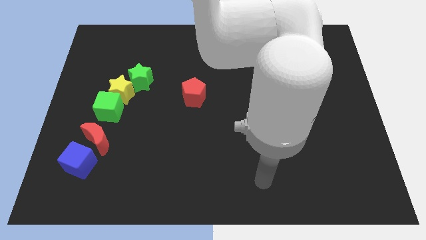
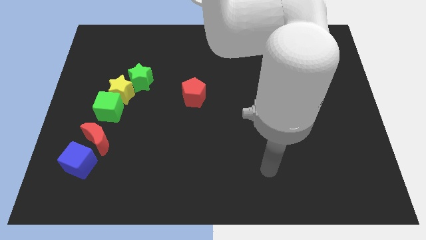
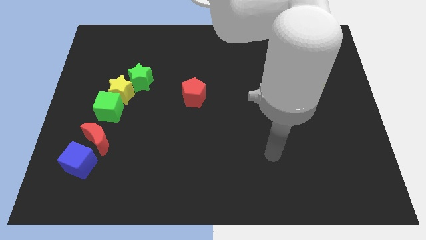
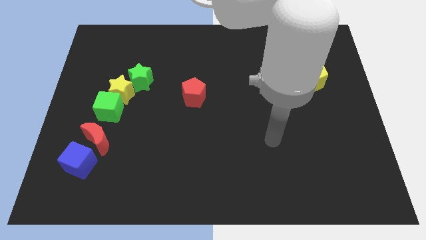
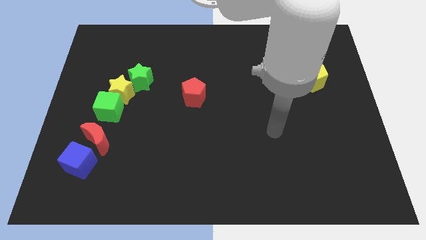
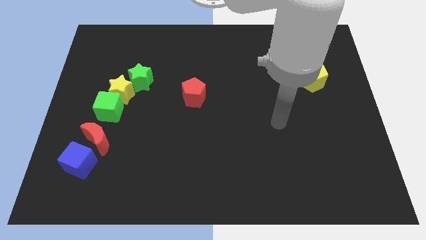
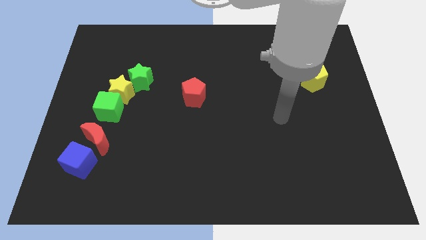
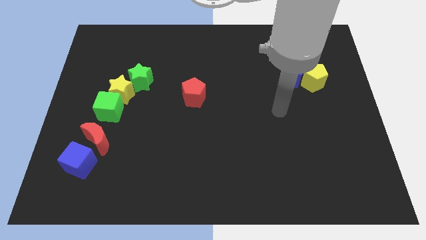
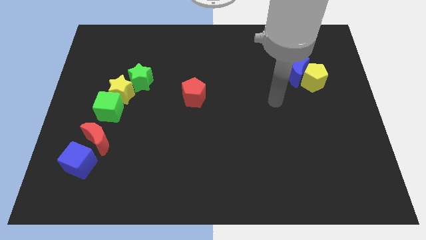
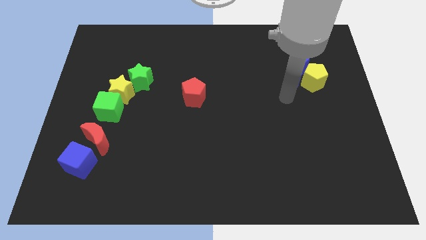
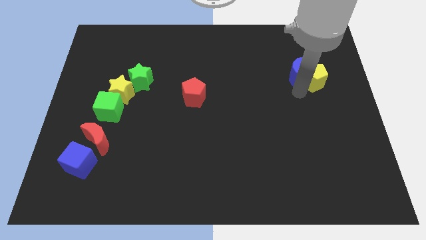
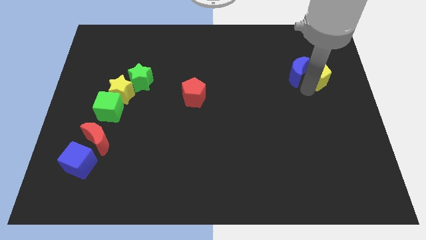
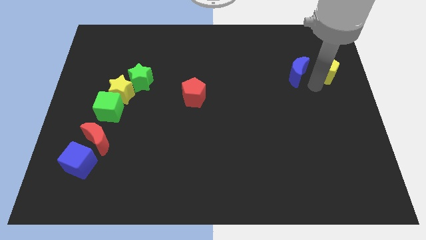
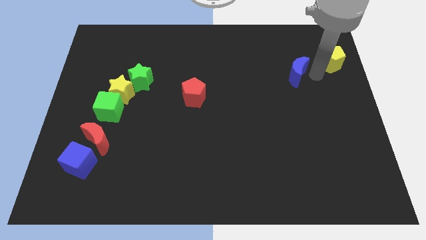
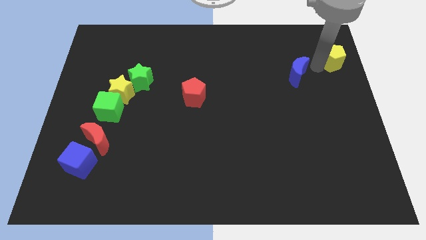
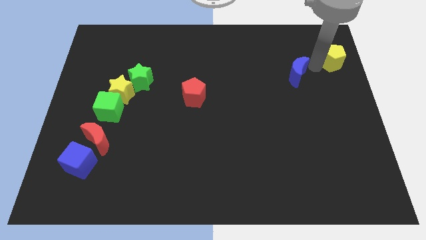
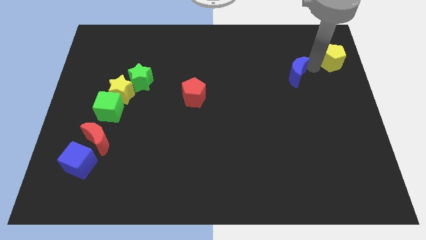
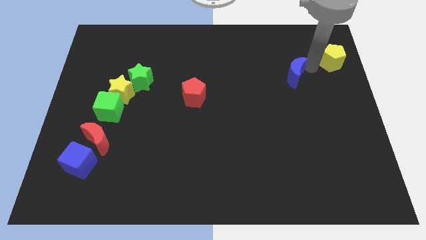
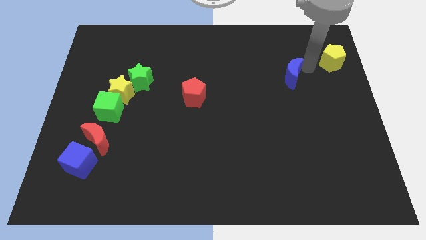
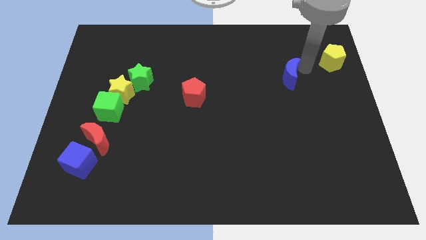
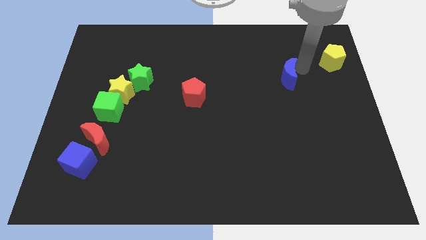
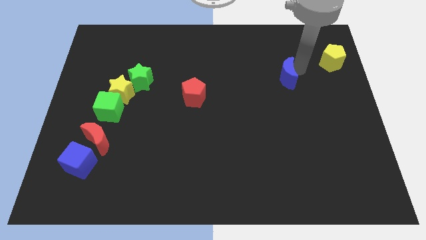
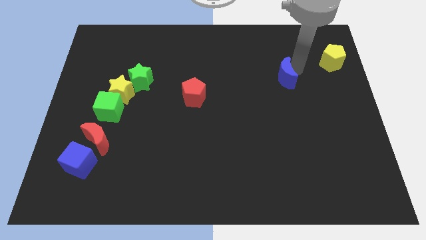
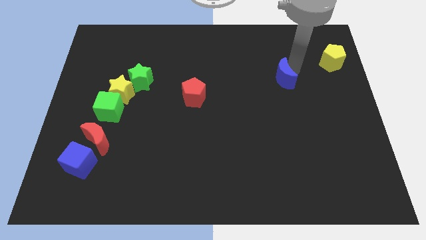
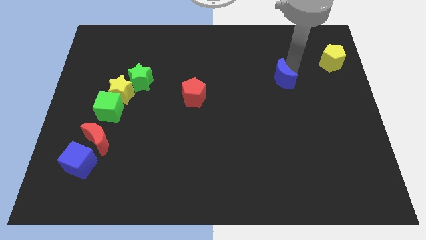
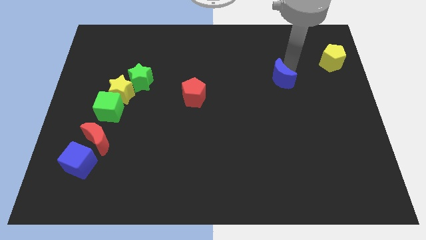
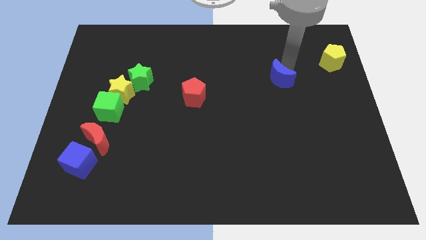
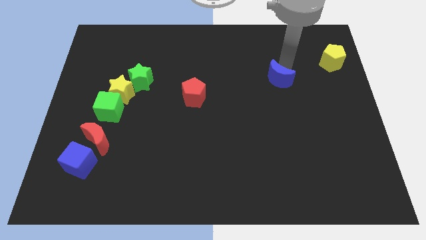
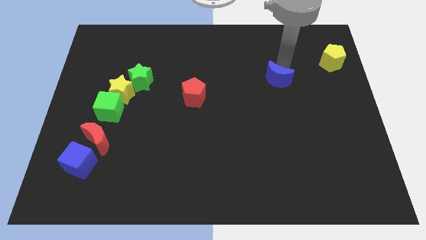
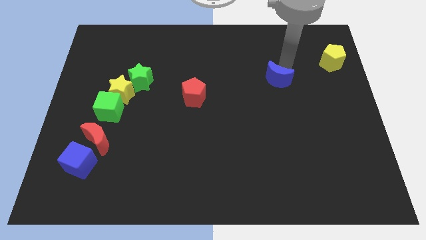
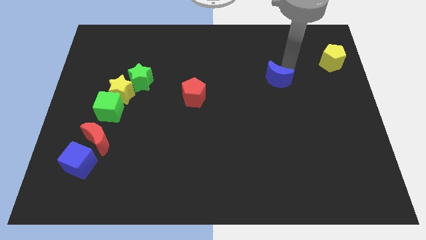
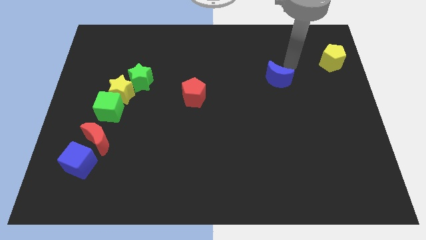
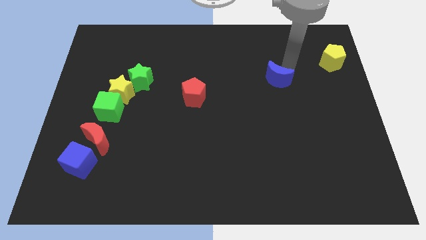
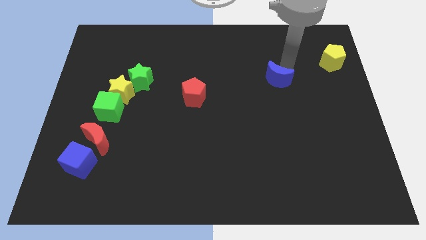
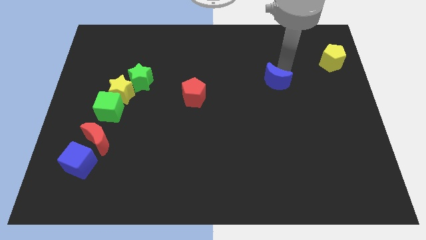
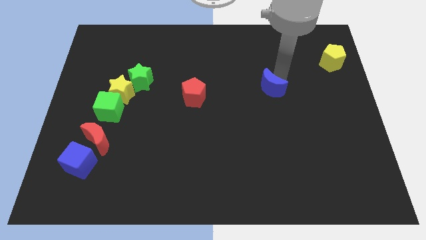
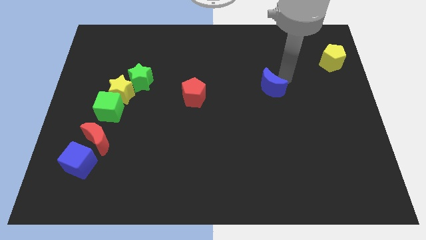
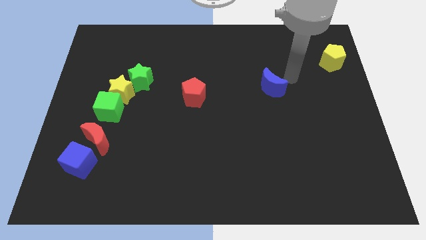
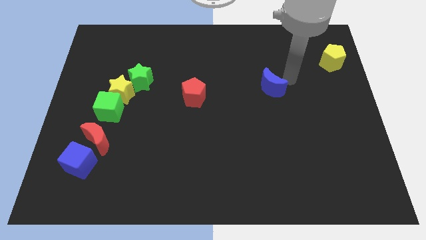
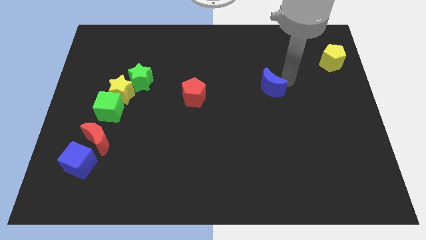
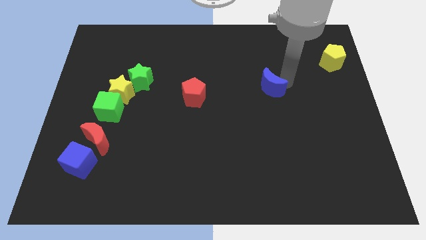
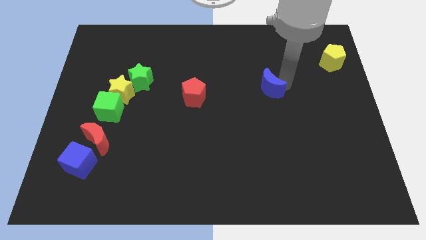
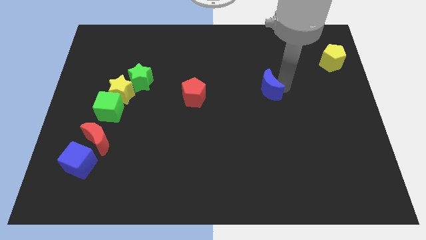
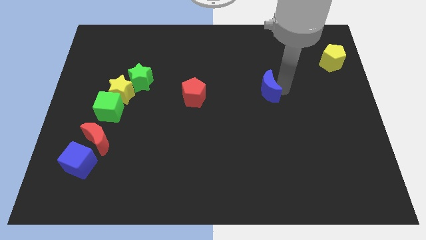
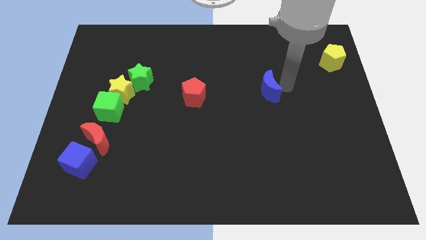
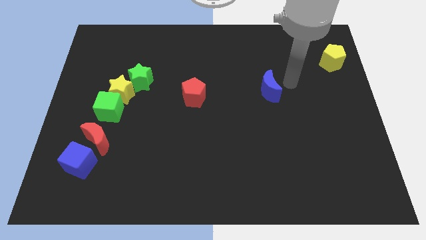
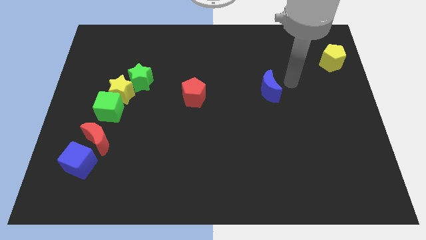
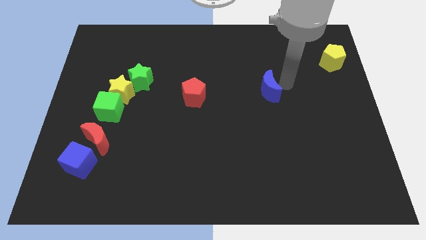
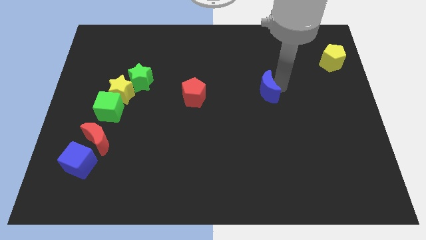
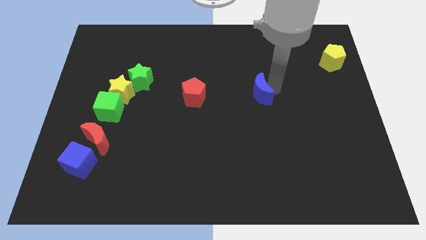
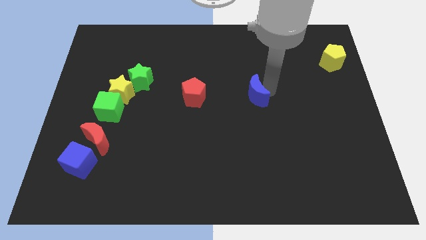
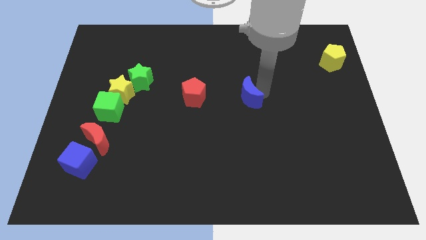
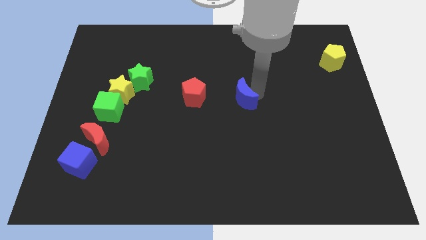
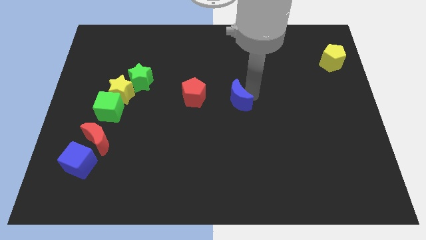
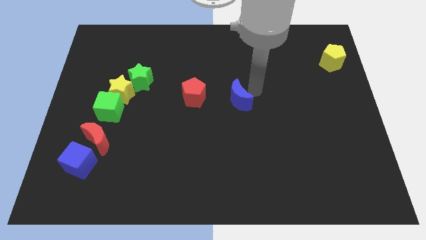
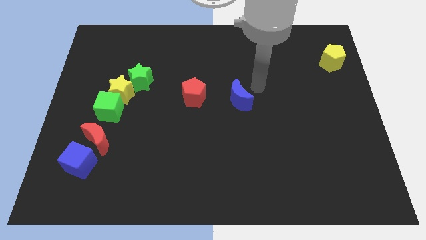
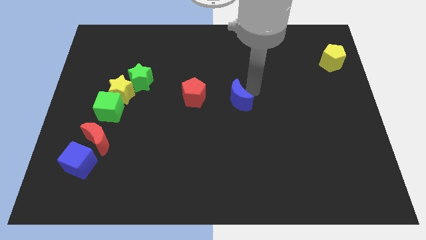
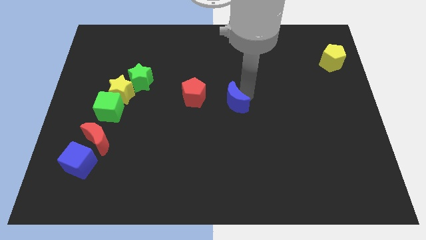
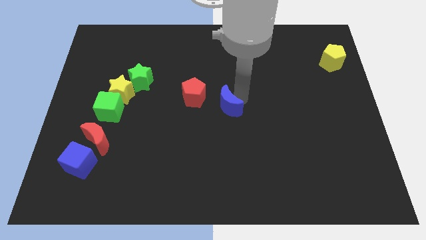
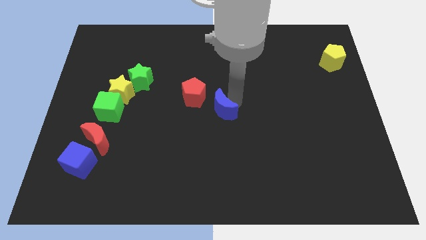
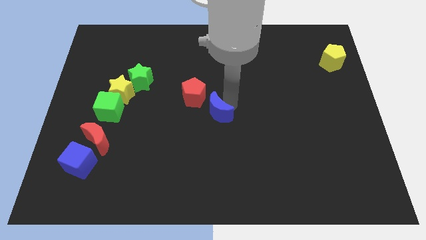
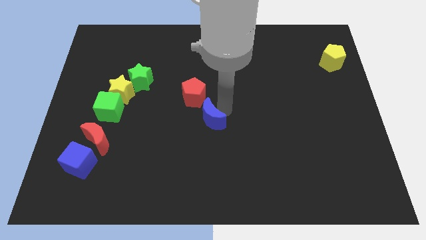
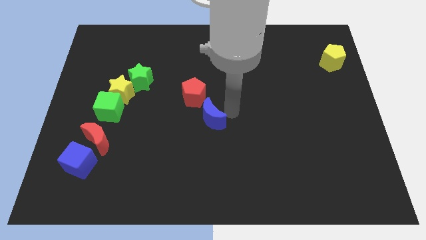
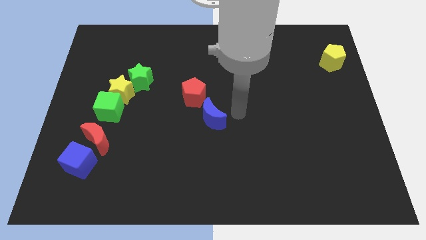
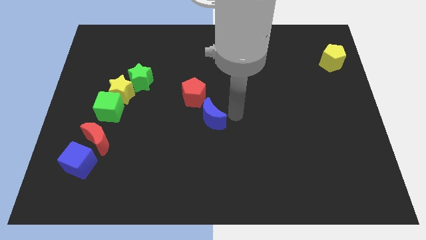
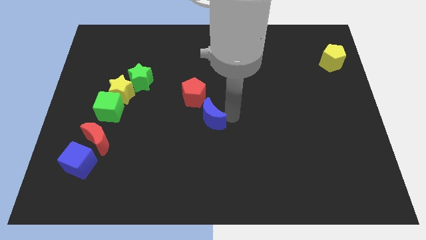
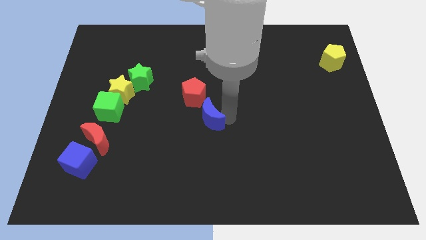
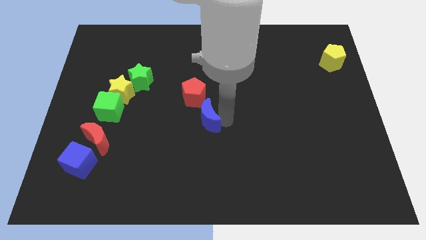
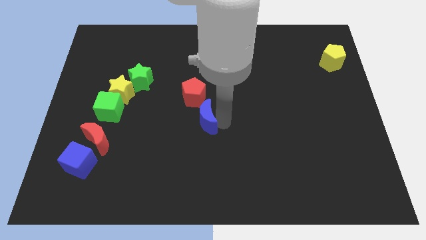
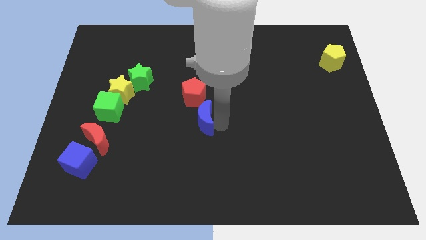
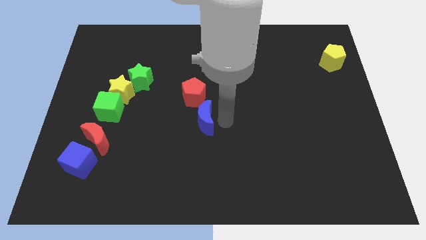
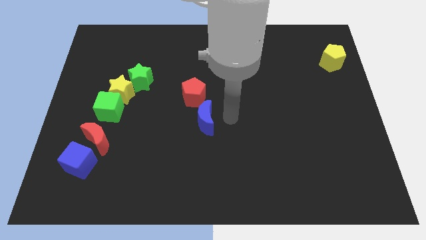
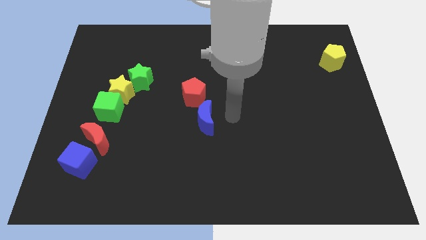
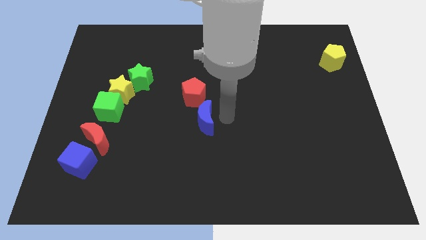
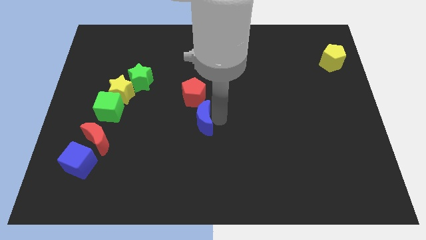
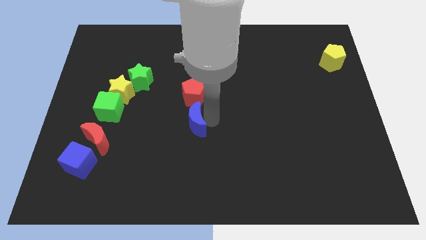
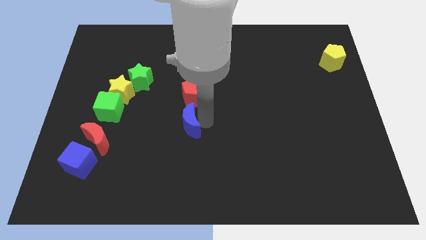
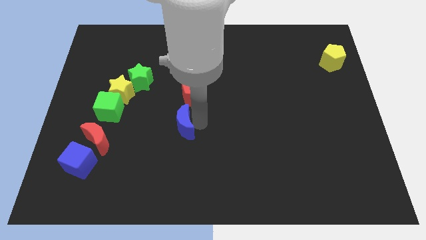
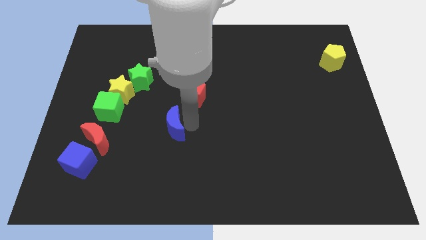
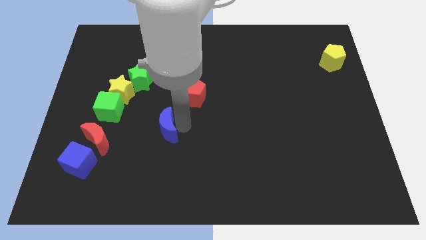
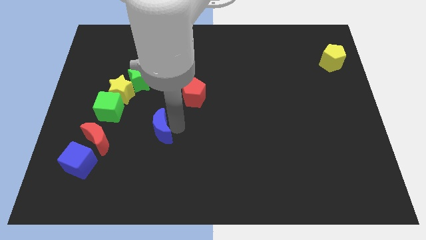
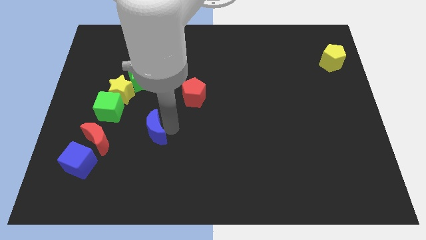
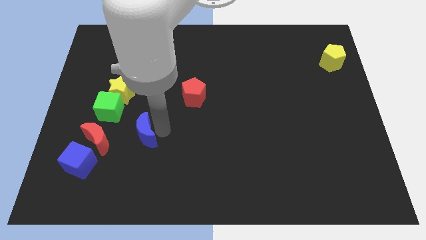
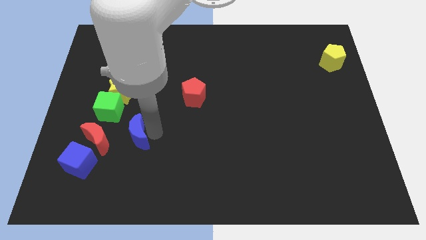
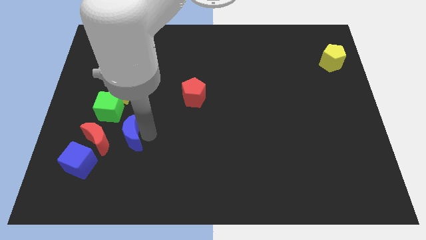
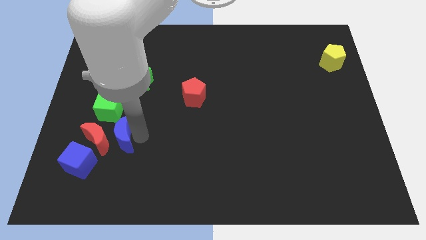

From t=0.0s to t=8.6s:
put the blue moon close to the red moon
